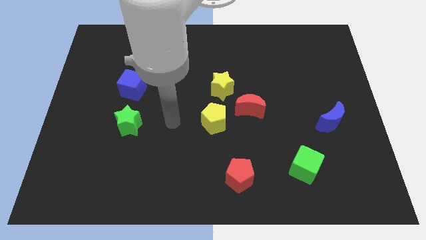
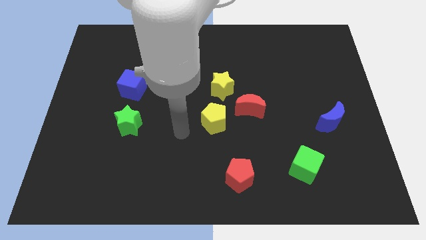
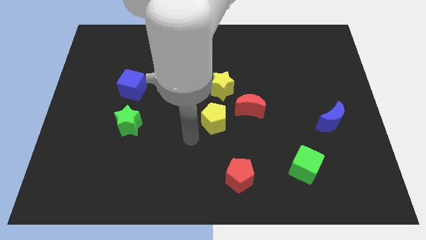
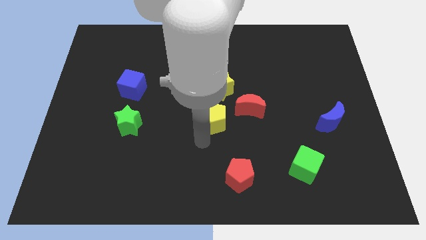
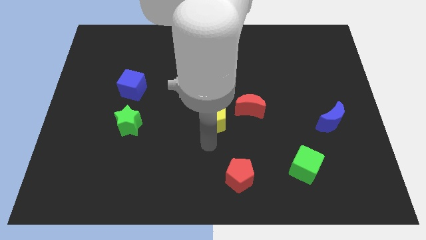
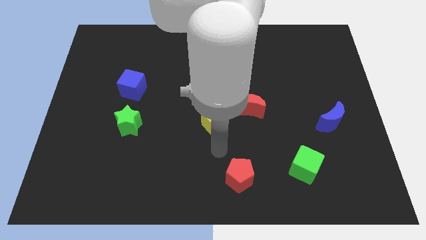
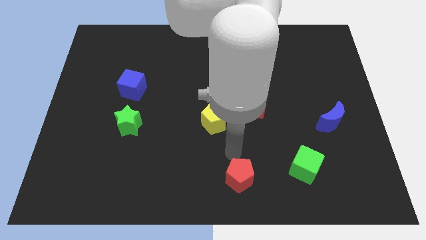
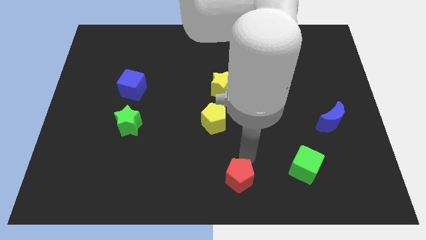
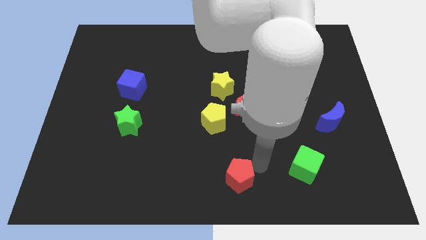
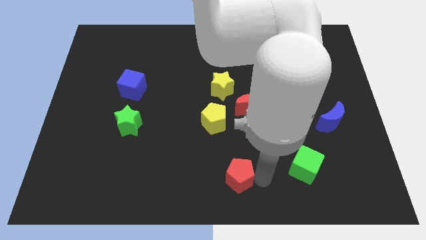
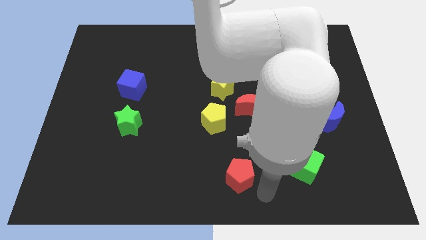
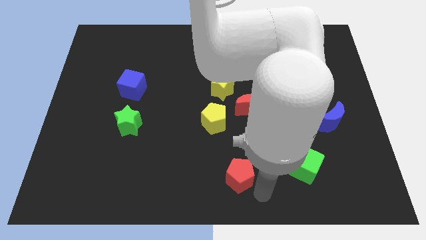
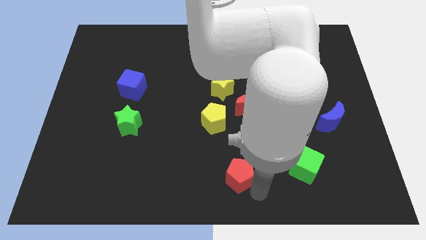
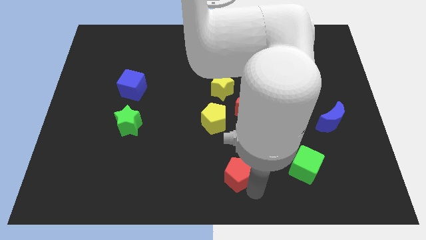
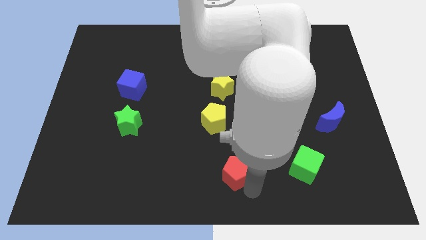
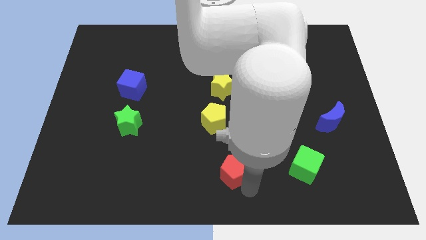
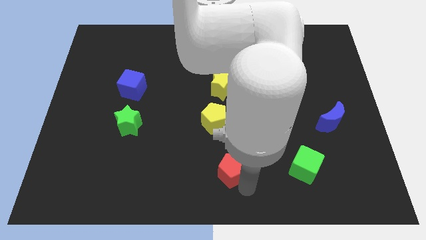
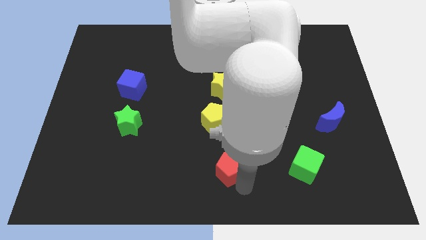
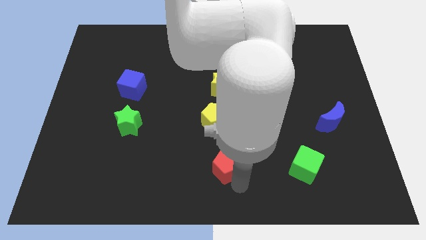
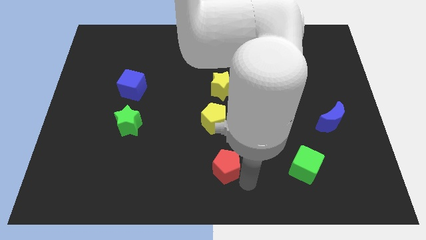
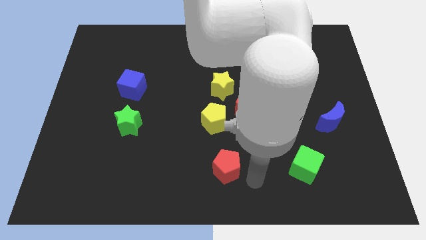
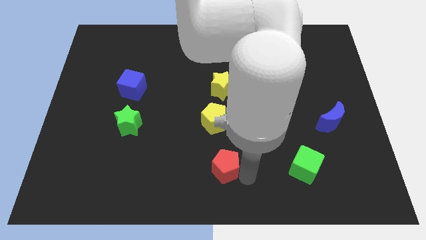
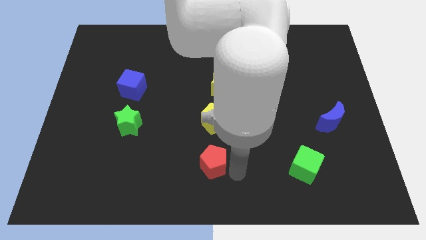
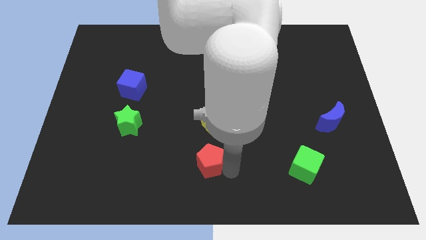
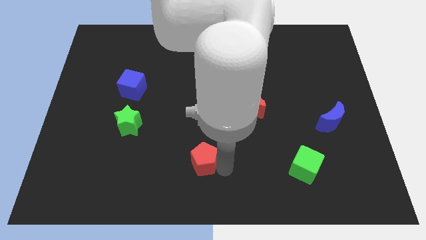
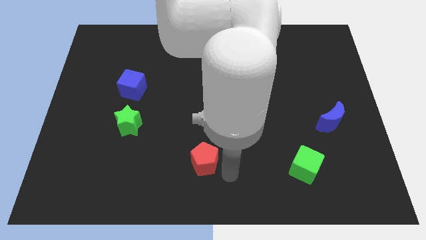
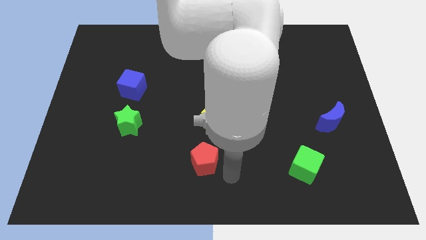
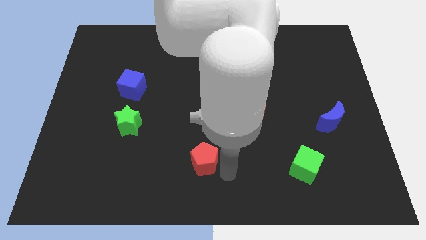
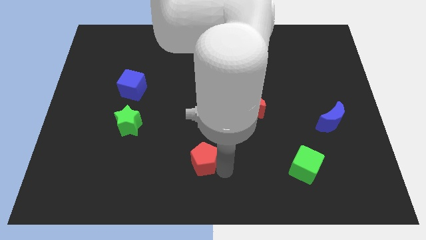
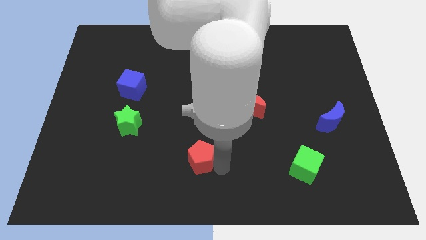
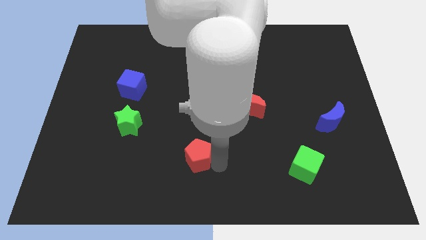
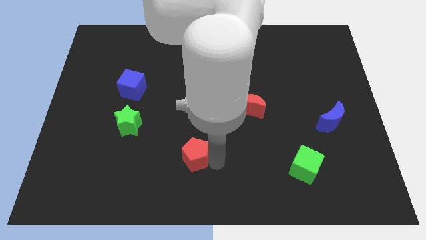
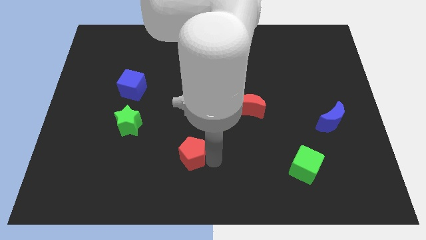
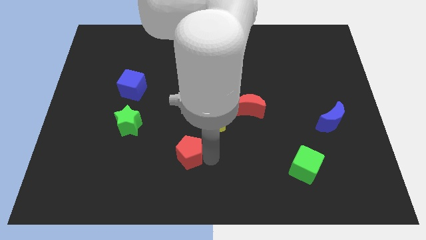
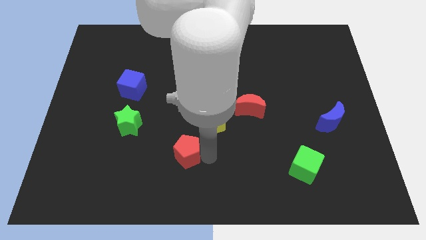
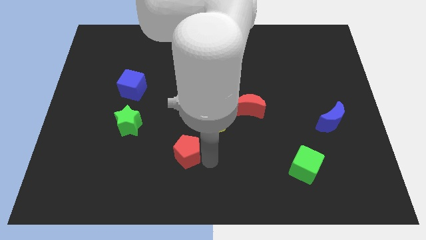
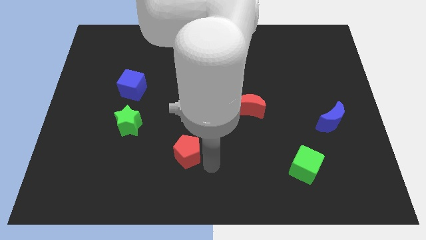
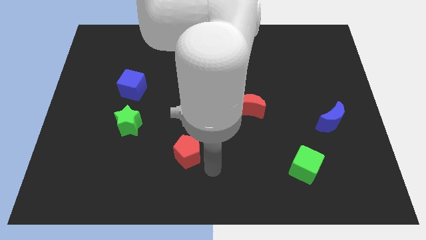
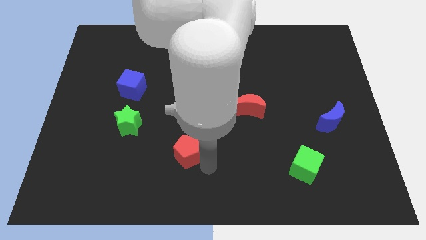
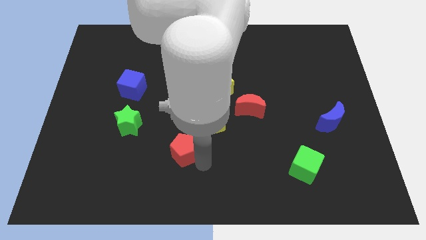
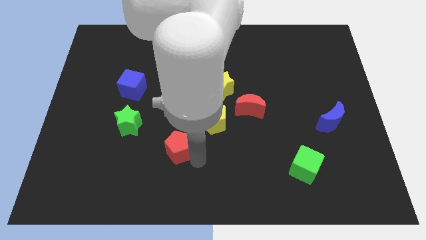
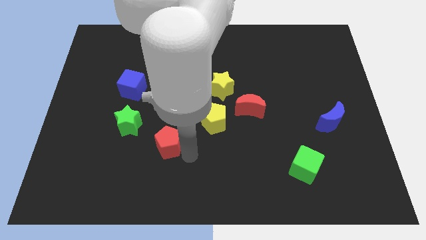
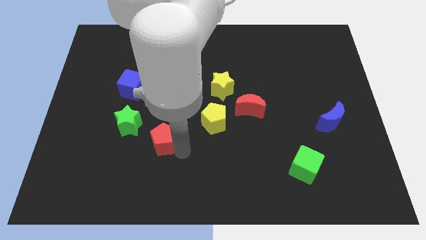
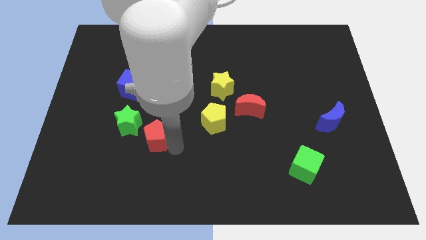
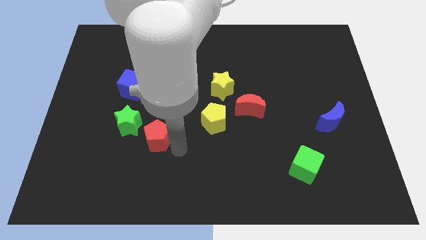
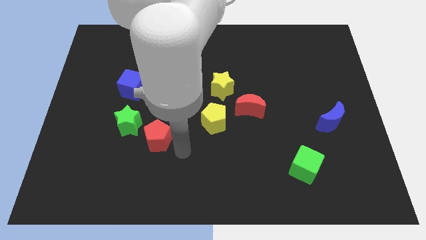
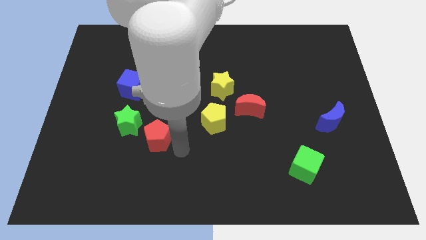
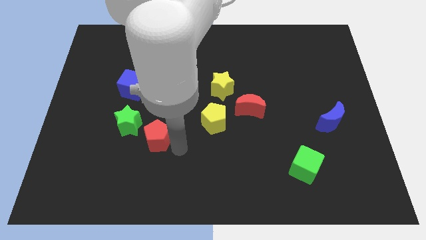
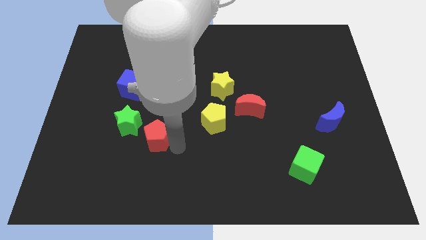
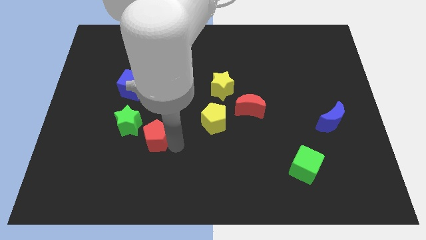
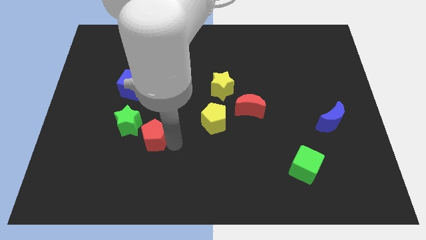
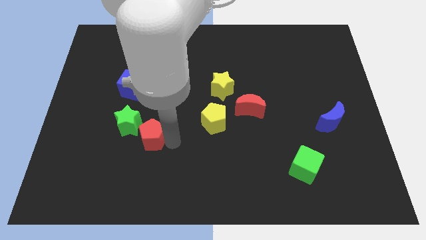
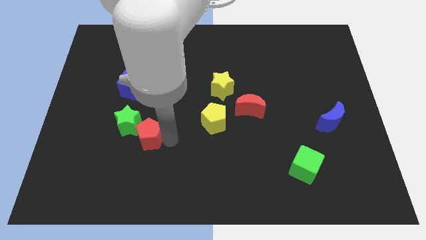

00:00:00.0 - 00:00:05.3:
put the red pentagon to the green star

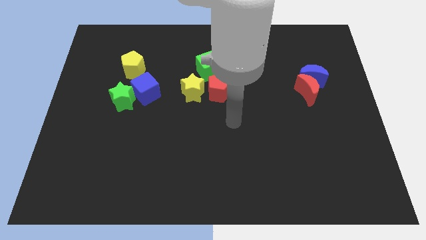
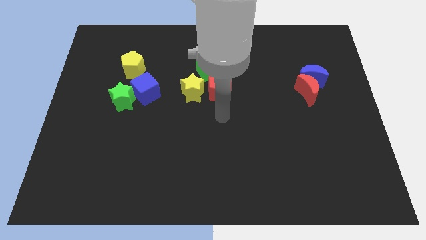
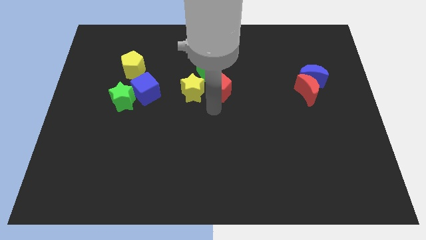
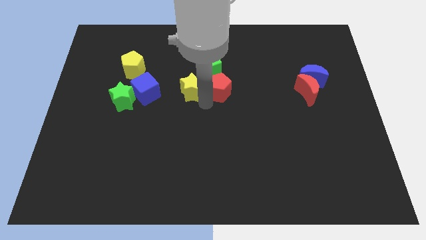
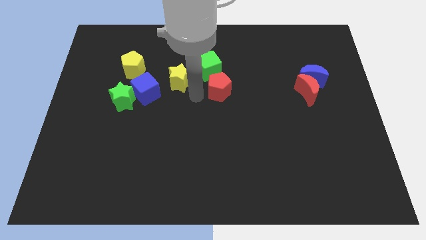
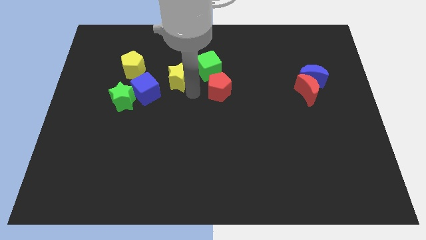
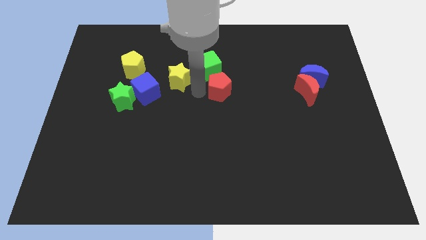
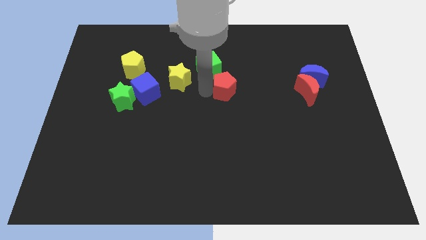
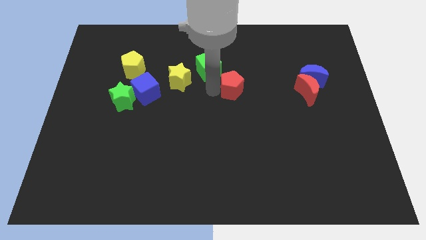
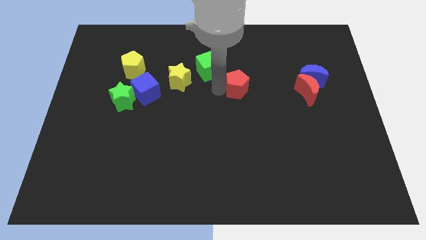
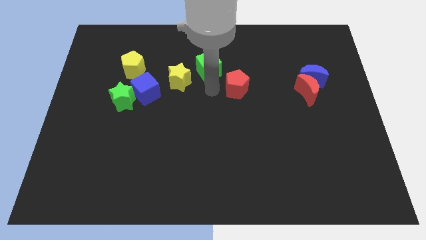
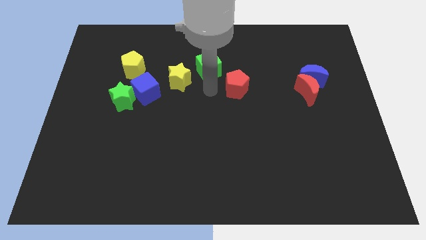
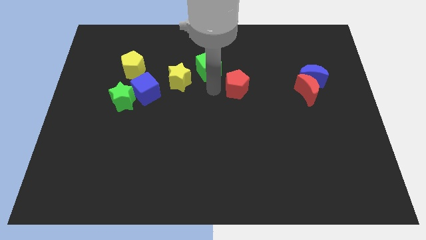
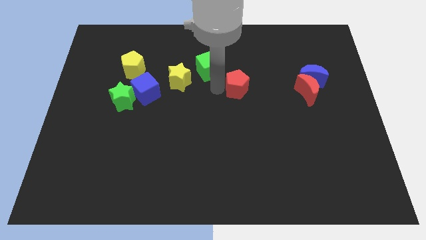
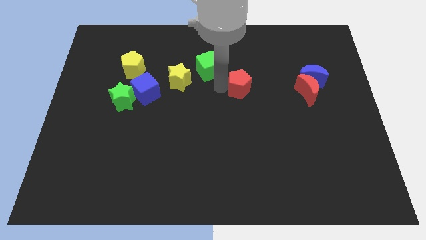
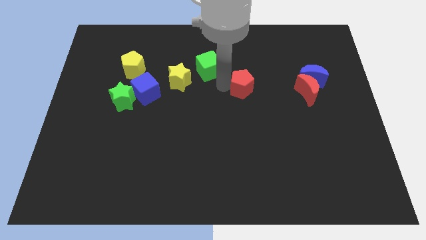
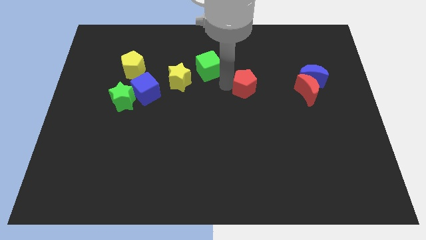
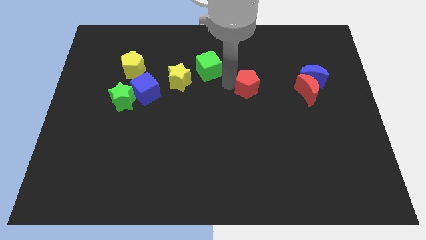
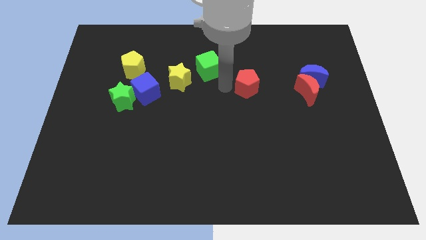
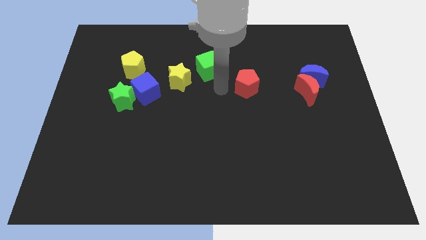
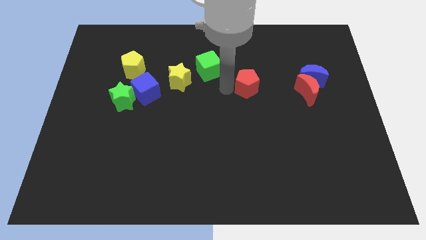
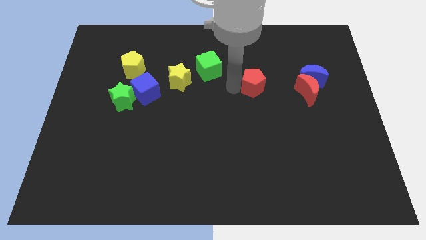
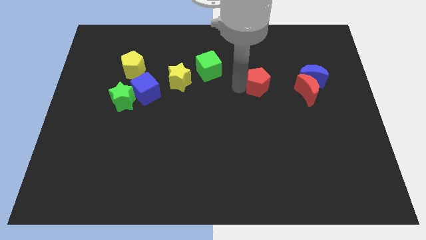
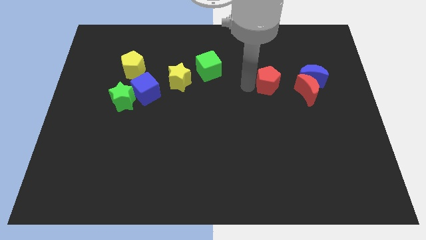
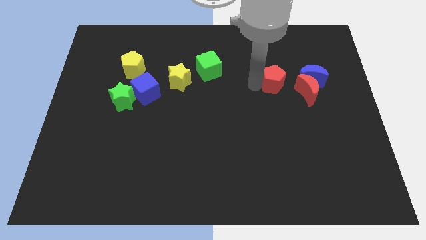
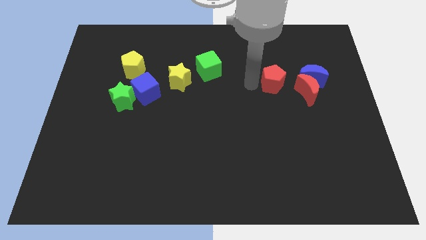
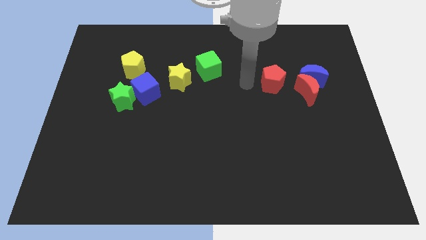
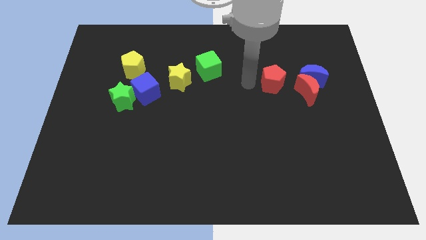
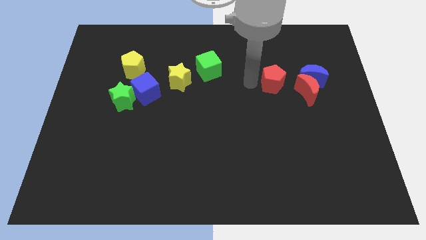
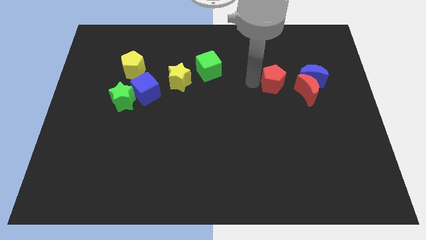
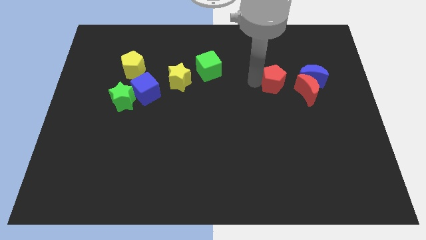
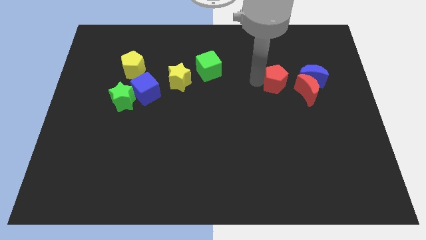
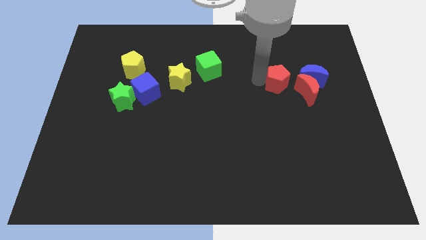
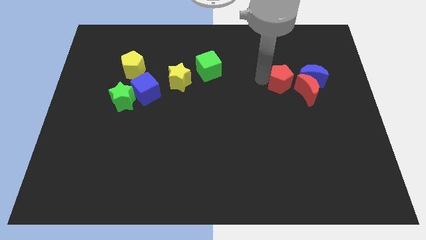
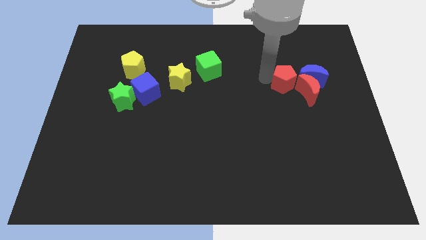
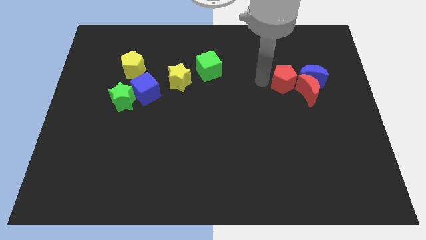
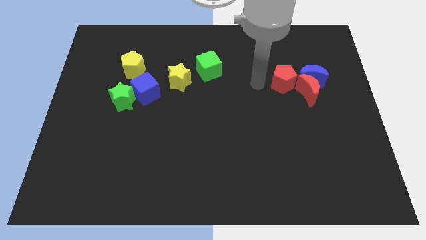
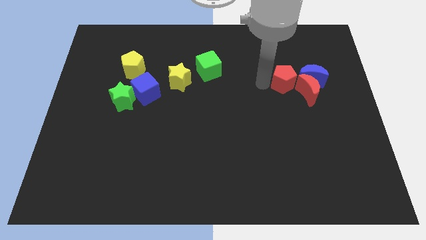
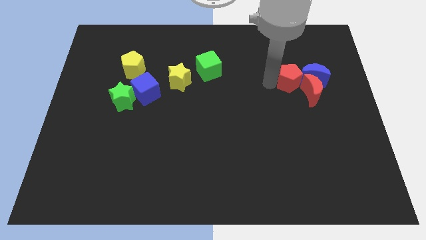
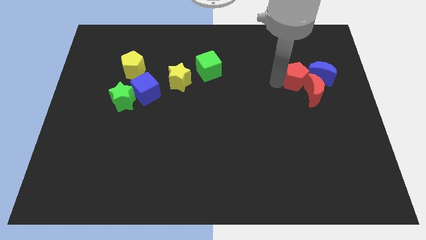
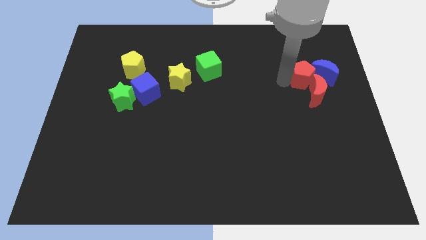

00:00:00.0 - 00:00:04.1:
move the red pentagon towards the blue moon
